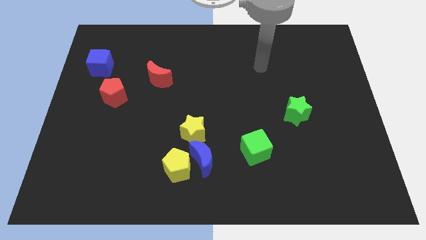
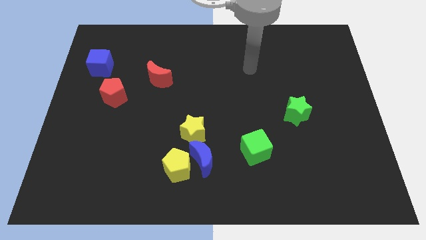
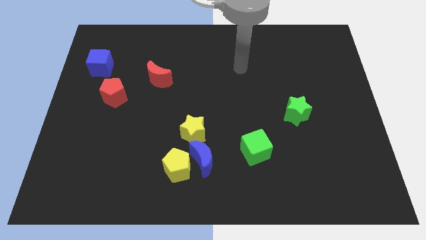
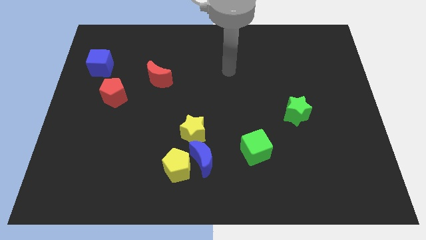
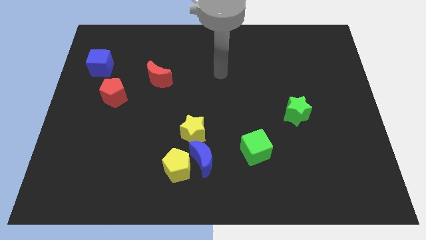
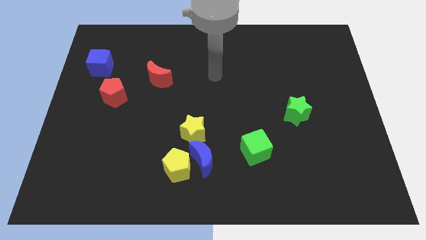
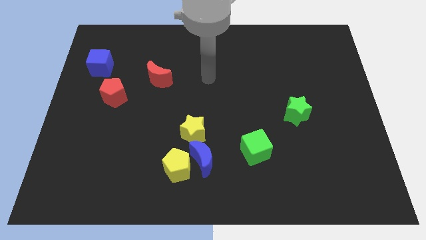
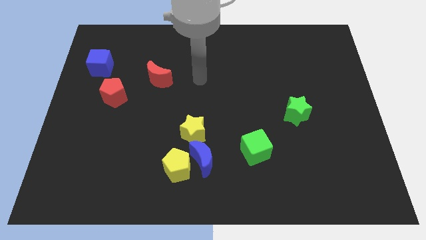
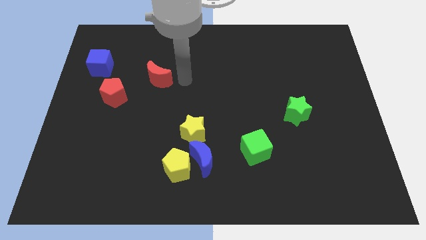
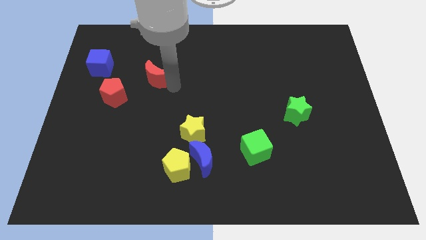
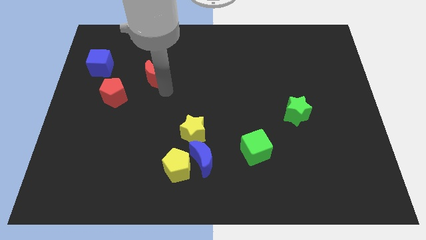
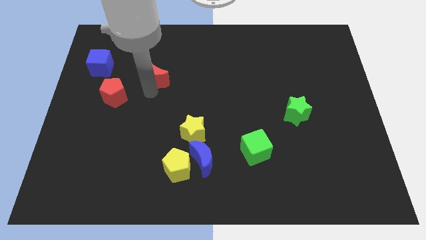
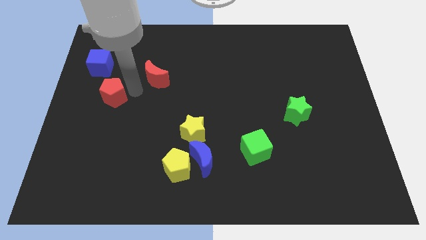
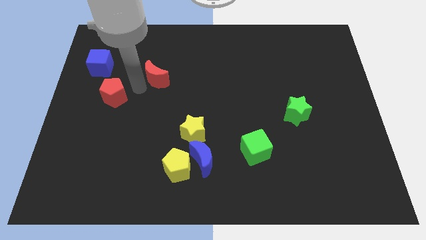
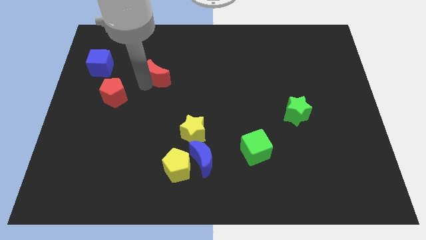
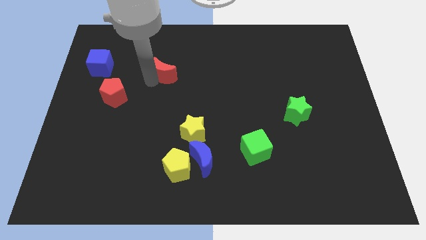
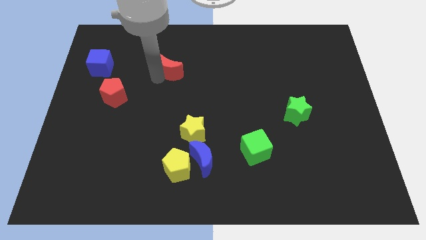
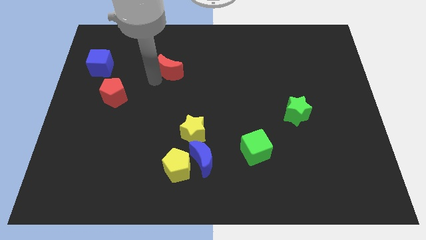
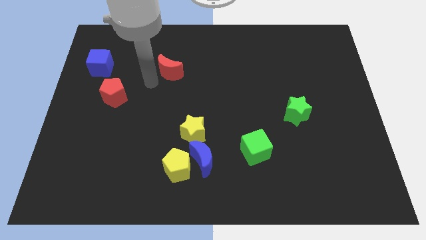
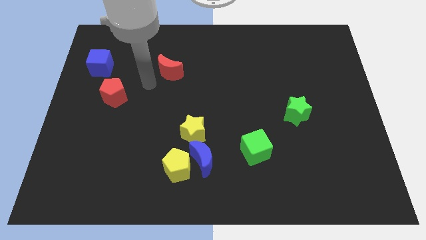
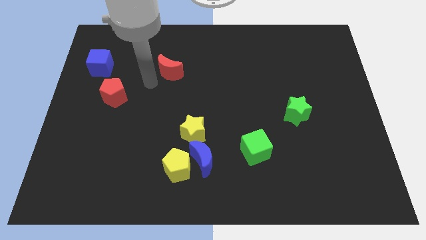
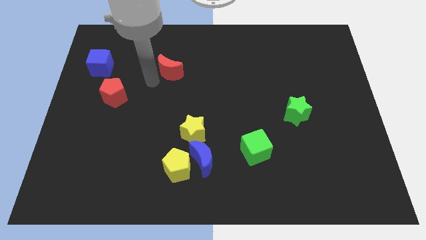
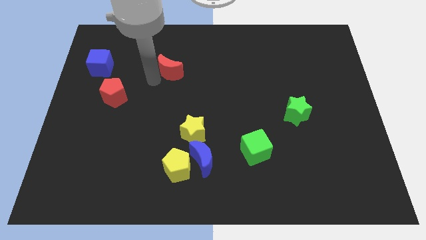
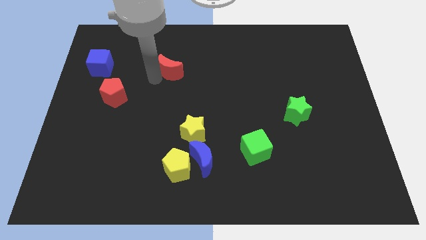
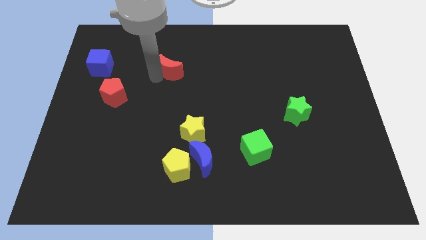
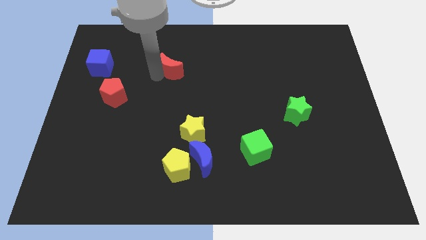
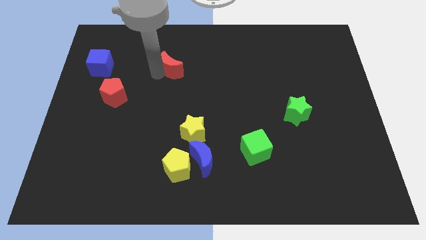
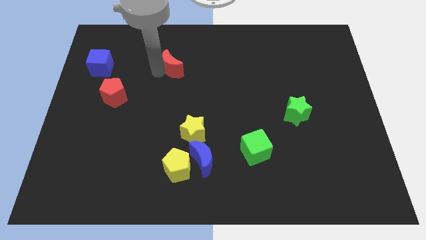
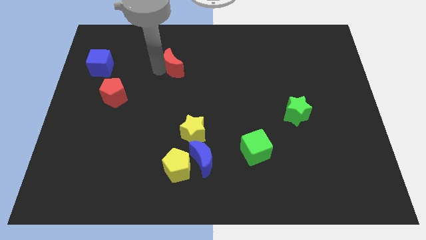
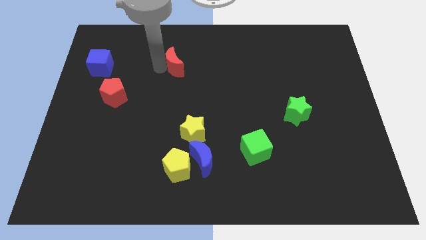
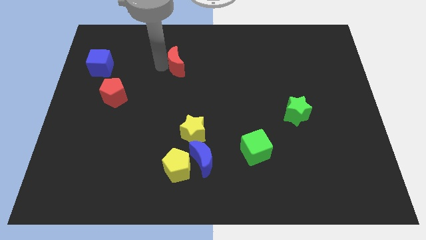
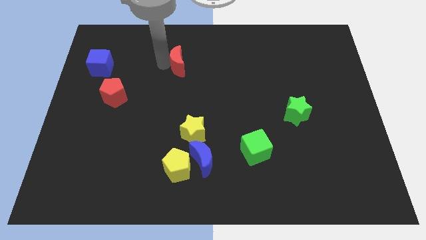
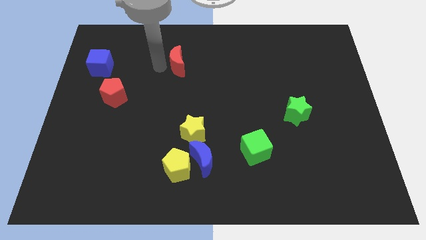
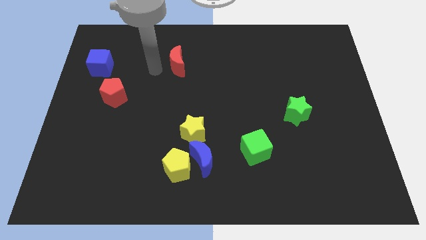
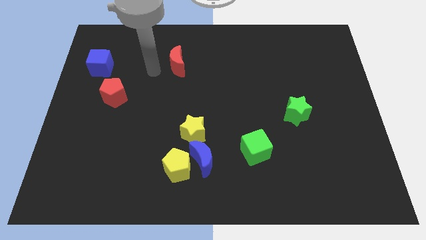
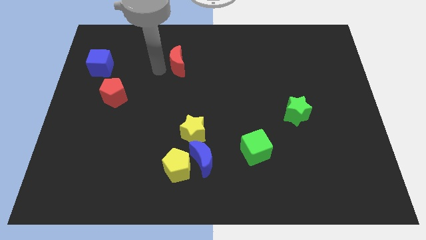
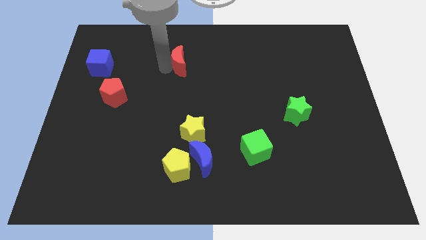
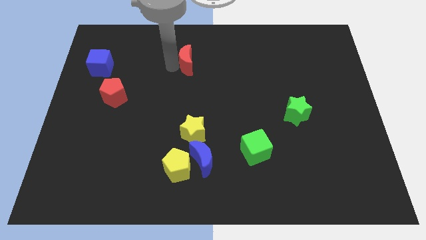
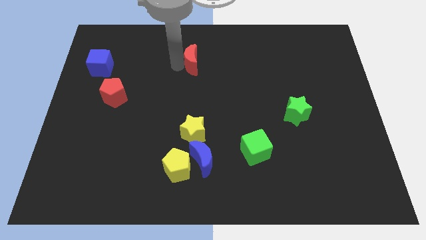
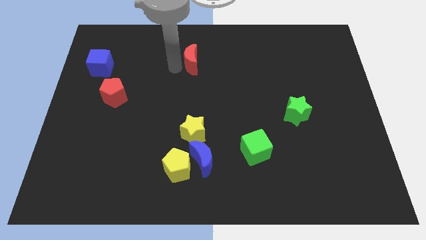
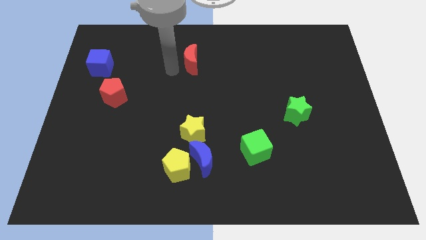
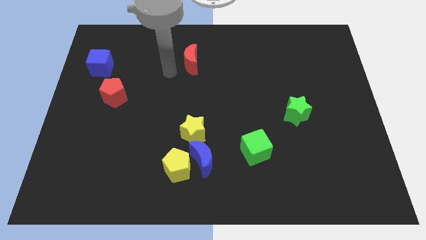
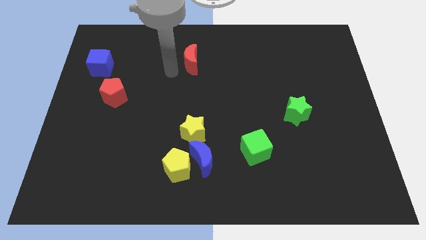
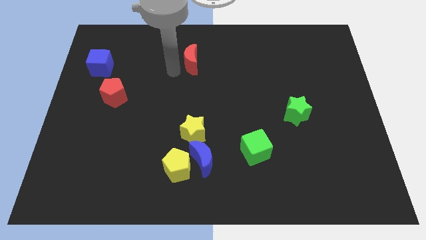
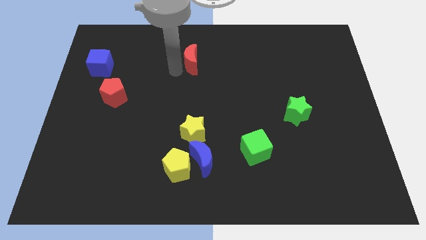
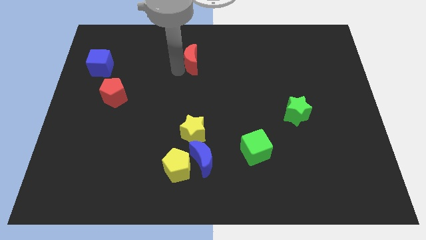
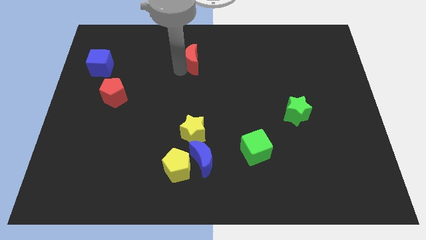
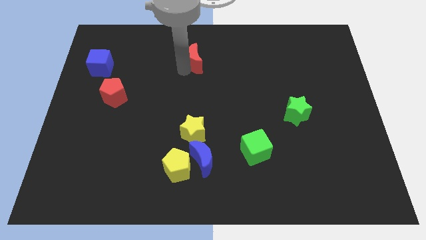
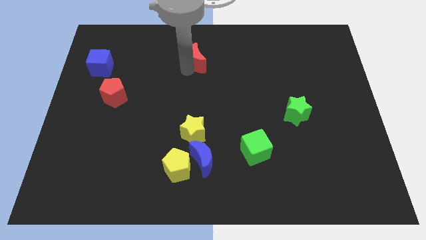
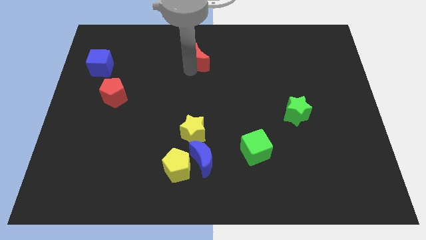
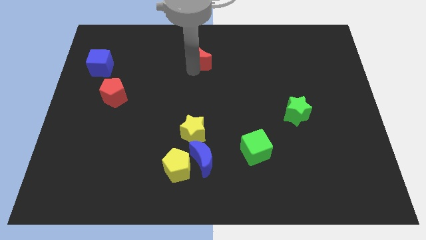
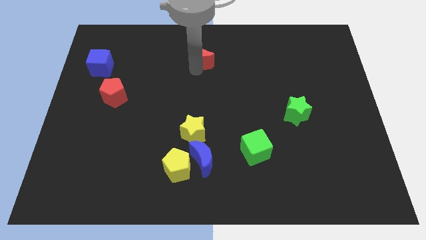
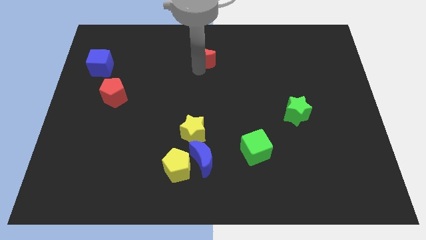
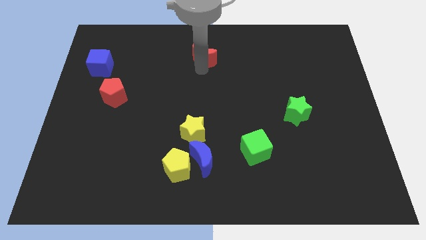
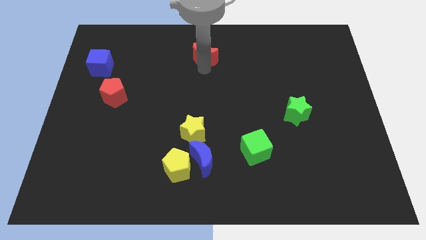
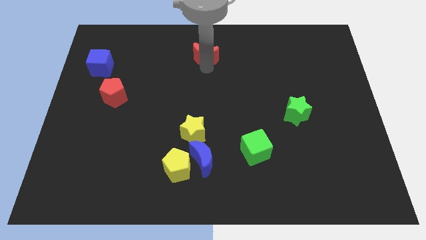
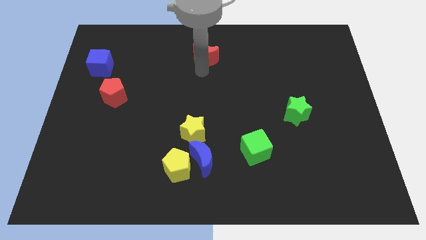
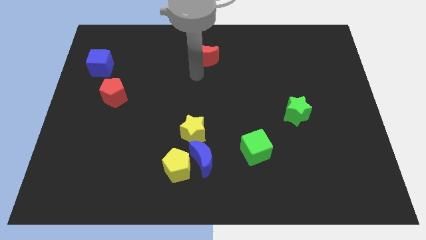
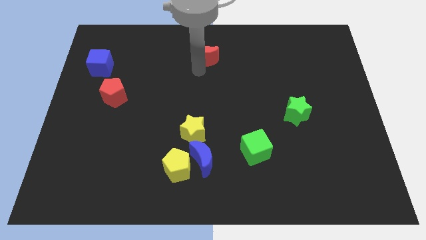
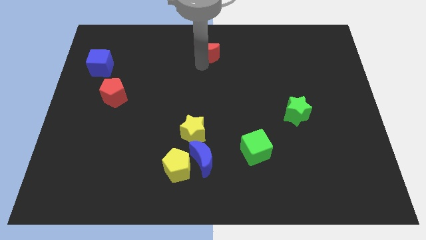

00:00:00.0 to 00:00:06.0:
slide the red moon to the top side
